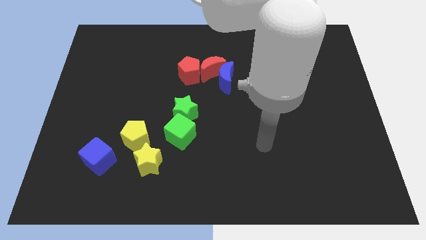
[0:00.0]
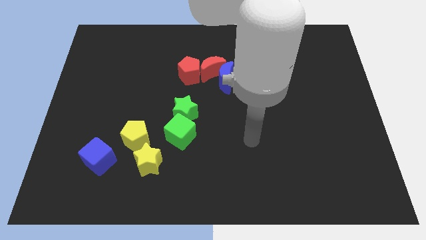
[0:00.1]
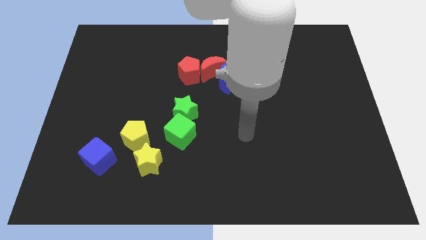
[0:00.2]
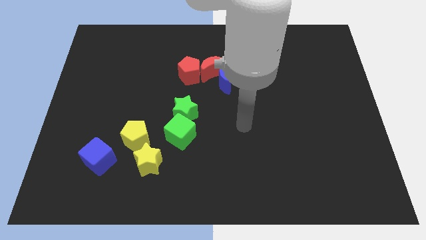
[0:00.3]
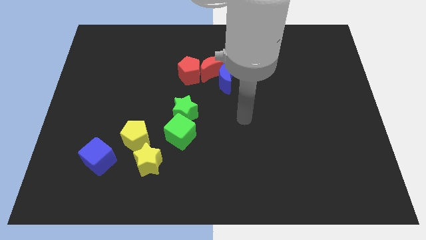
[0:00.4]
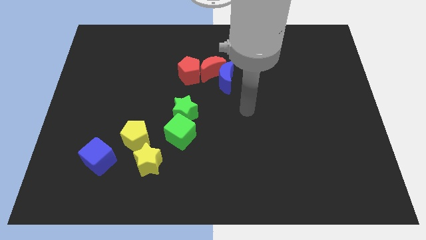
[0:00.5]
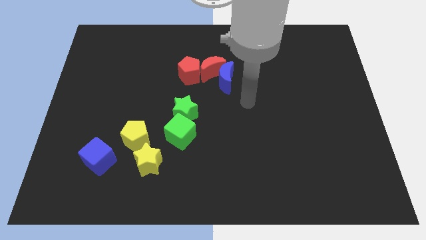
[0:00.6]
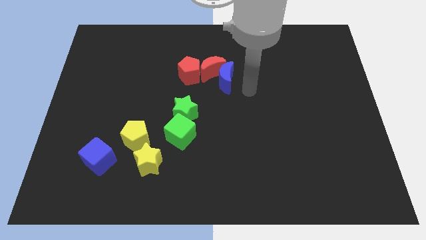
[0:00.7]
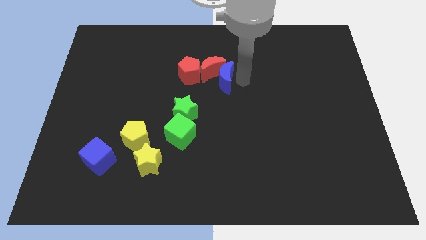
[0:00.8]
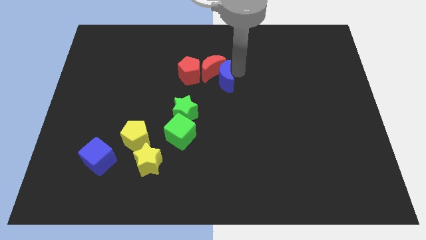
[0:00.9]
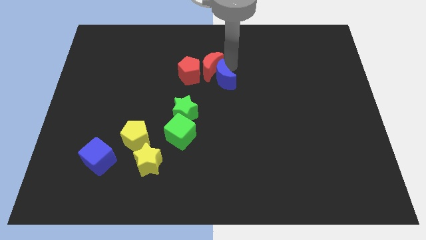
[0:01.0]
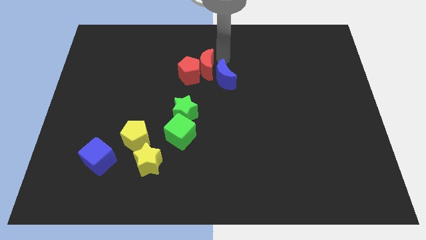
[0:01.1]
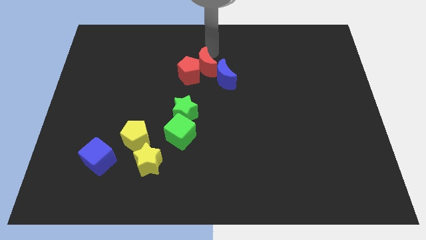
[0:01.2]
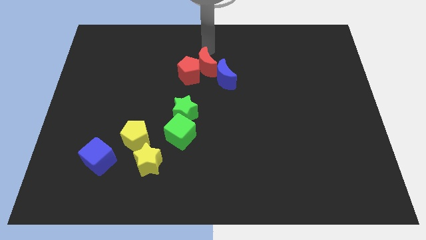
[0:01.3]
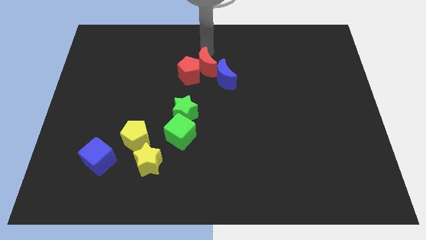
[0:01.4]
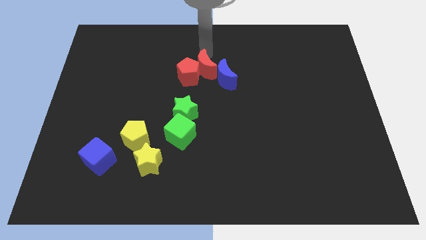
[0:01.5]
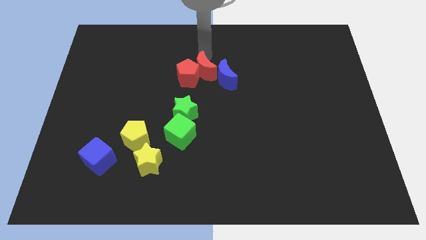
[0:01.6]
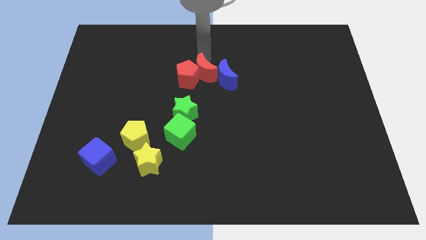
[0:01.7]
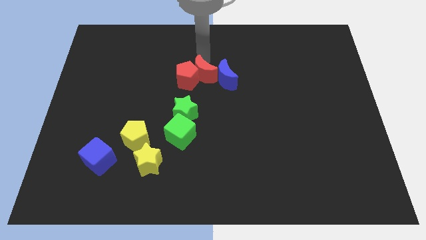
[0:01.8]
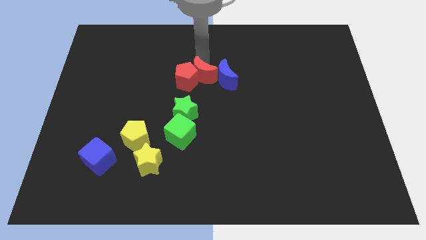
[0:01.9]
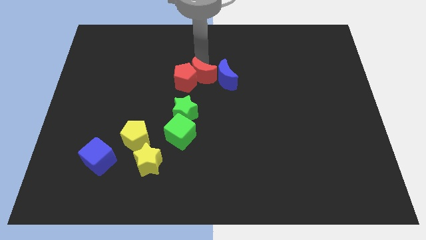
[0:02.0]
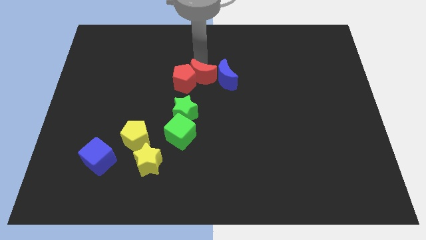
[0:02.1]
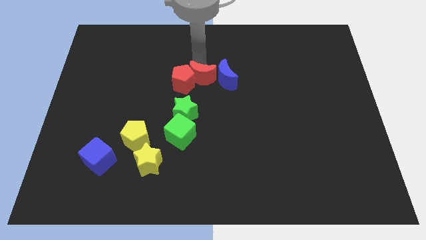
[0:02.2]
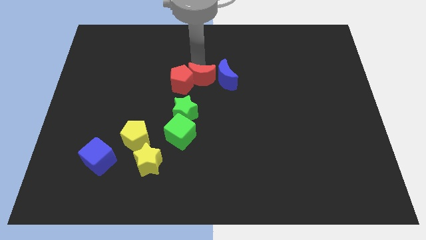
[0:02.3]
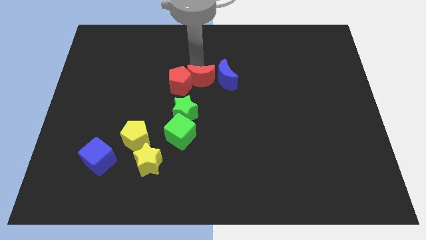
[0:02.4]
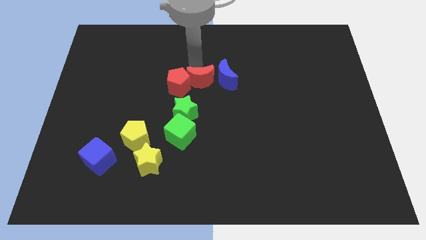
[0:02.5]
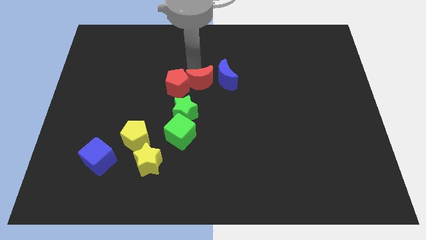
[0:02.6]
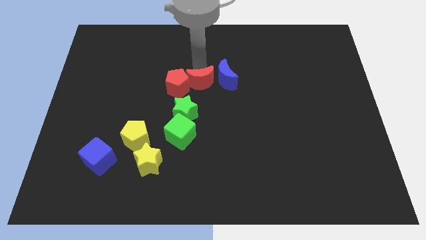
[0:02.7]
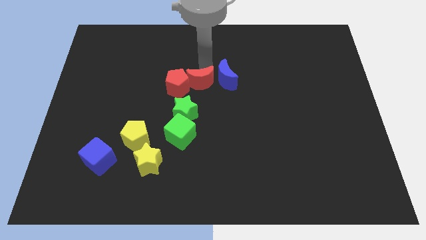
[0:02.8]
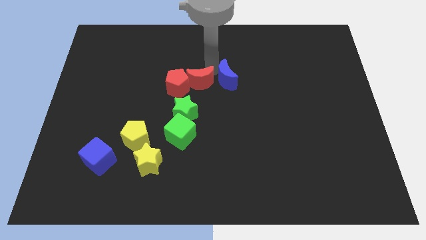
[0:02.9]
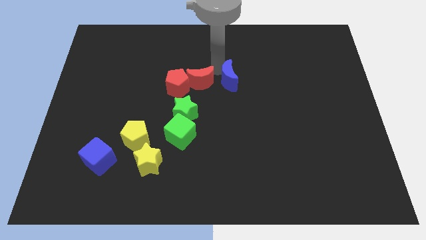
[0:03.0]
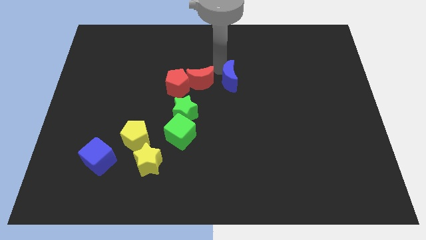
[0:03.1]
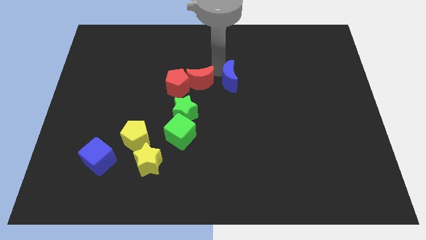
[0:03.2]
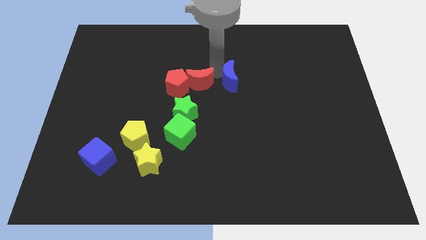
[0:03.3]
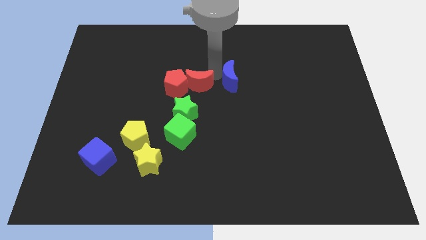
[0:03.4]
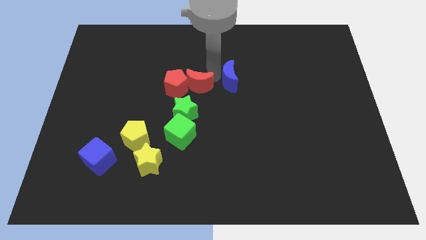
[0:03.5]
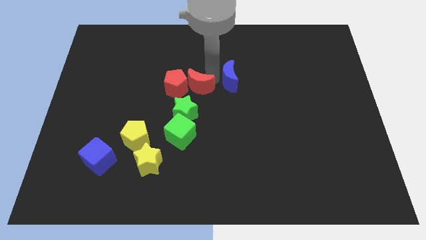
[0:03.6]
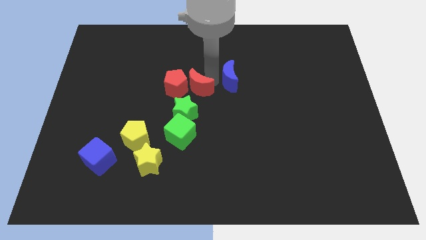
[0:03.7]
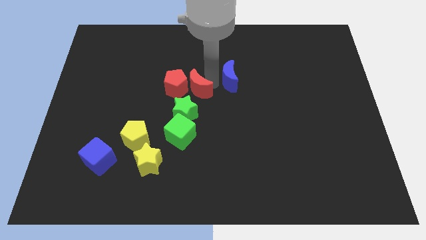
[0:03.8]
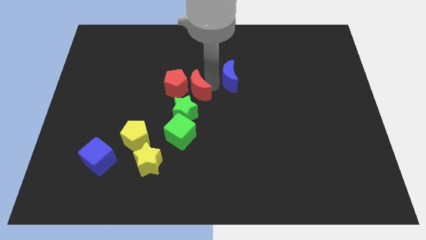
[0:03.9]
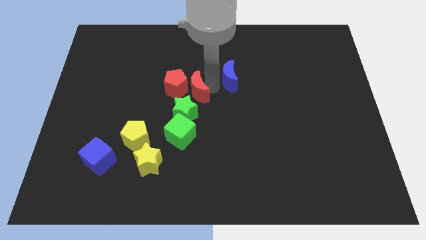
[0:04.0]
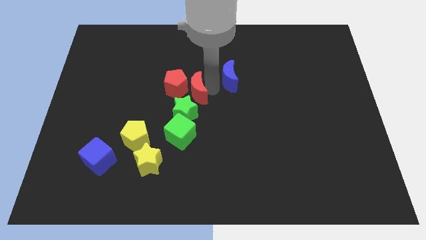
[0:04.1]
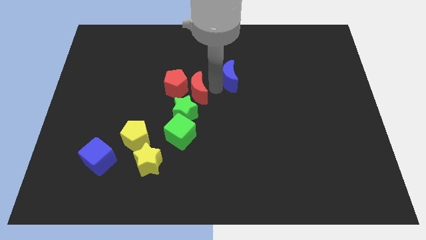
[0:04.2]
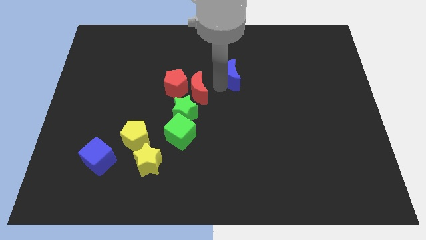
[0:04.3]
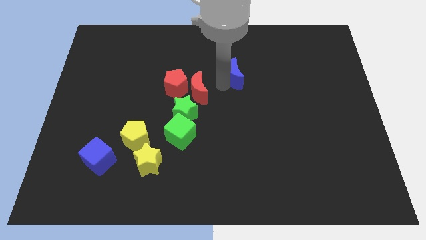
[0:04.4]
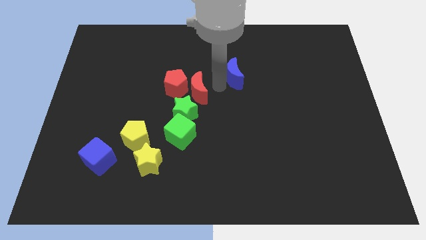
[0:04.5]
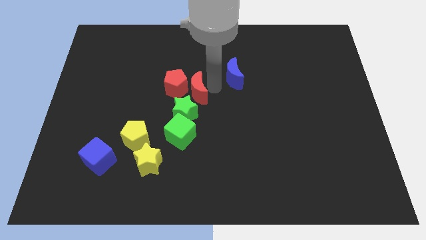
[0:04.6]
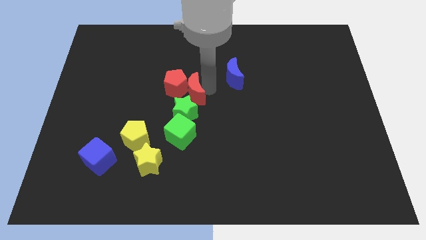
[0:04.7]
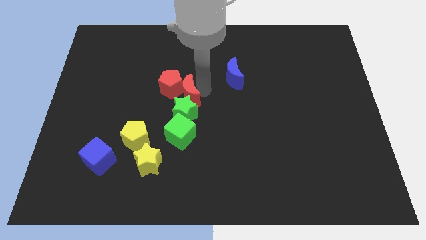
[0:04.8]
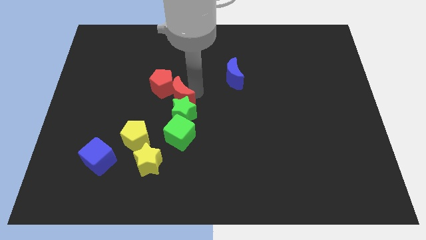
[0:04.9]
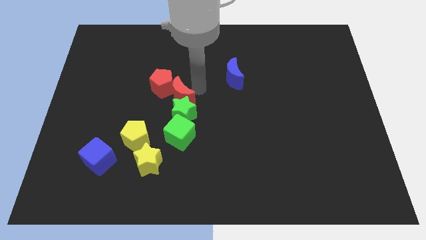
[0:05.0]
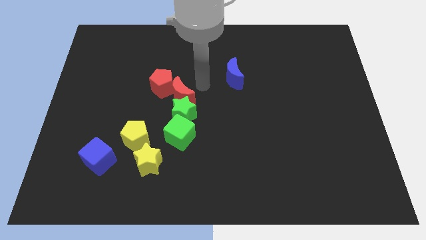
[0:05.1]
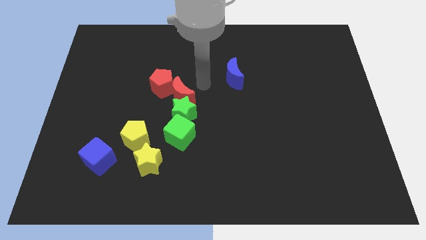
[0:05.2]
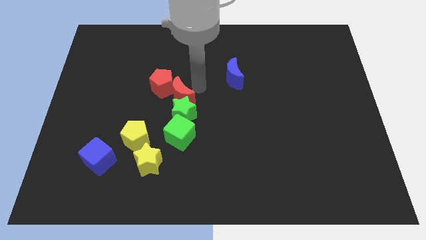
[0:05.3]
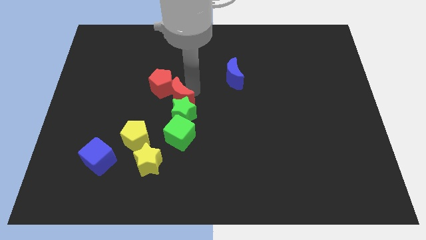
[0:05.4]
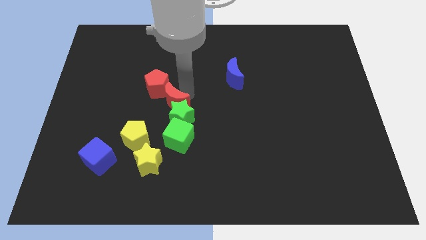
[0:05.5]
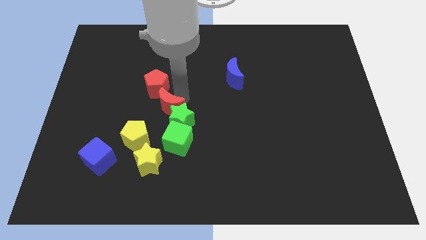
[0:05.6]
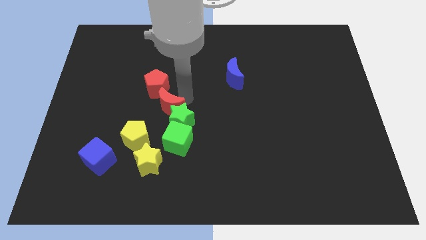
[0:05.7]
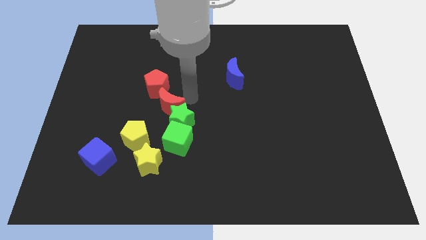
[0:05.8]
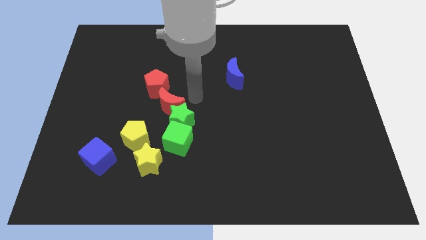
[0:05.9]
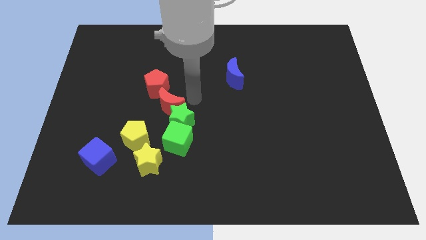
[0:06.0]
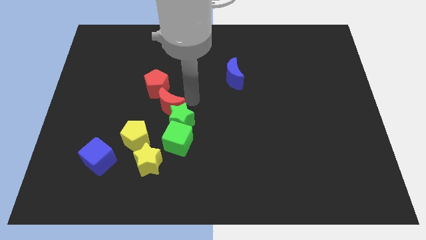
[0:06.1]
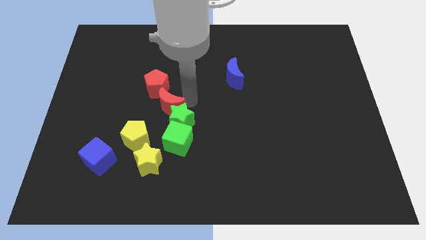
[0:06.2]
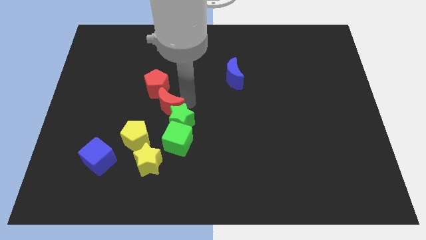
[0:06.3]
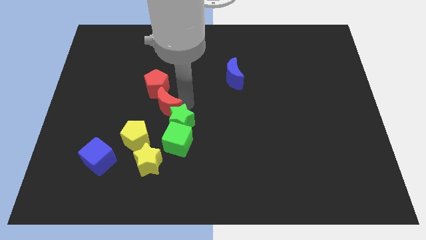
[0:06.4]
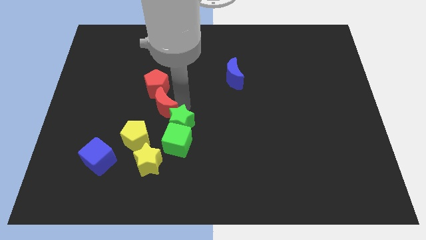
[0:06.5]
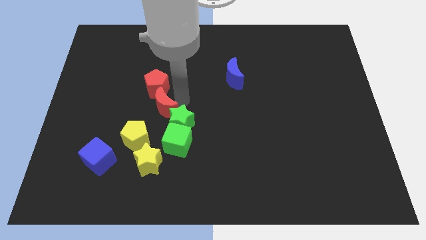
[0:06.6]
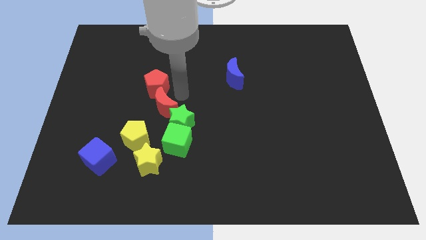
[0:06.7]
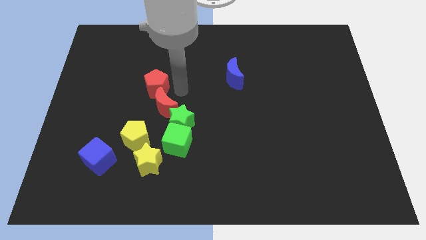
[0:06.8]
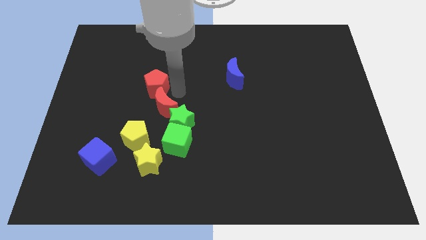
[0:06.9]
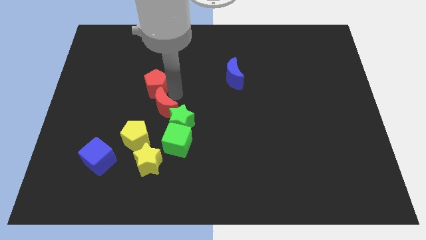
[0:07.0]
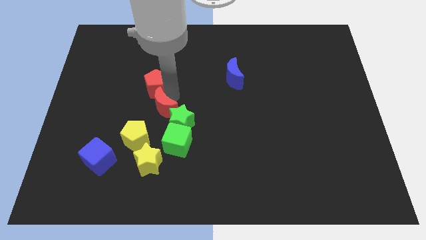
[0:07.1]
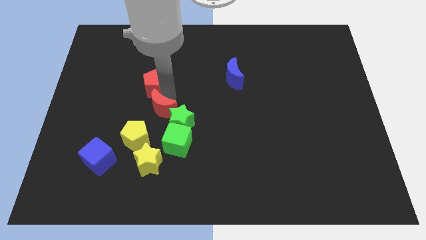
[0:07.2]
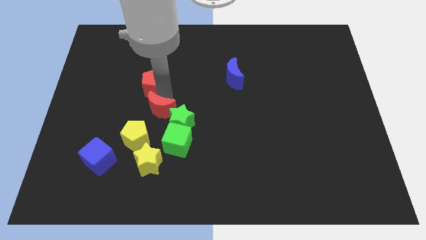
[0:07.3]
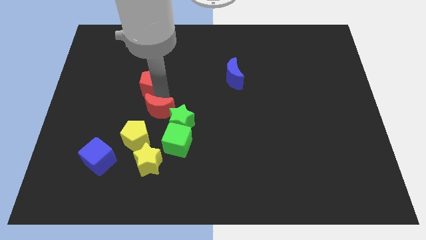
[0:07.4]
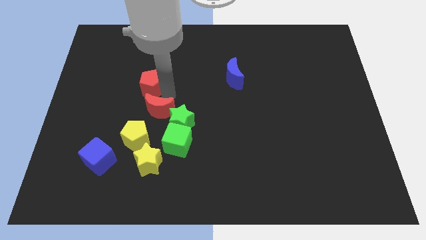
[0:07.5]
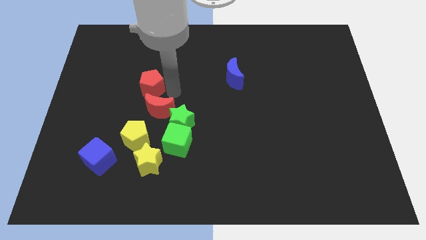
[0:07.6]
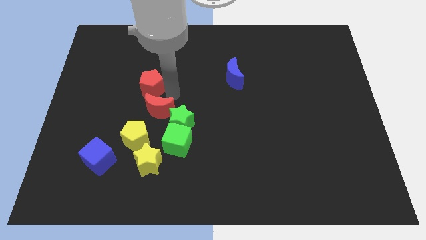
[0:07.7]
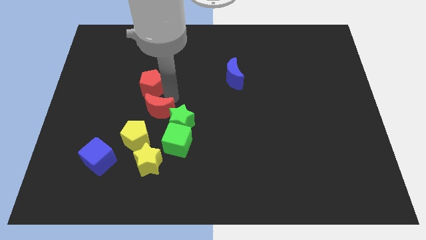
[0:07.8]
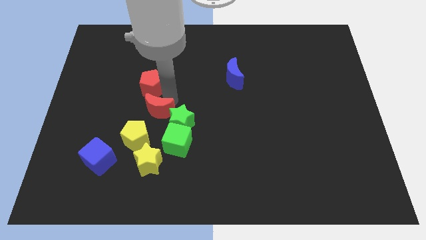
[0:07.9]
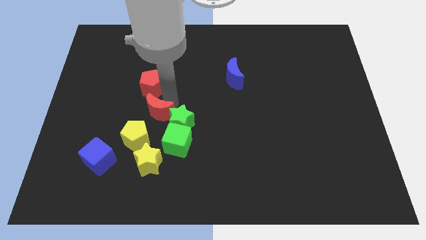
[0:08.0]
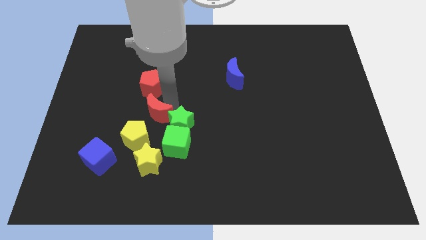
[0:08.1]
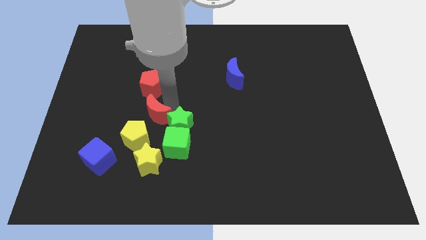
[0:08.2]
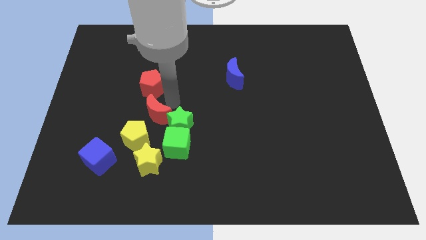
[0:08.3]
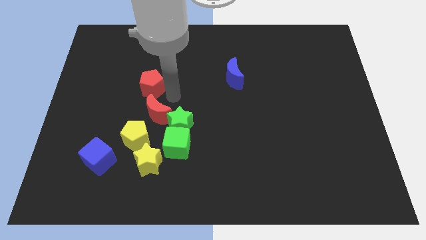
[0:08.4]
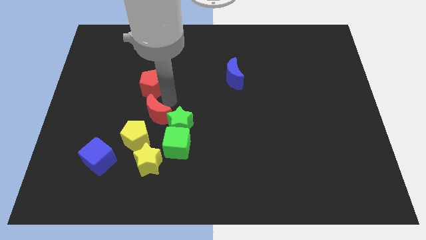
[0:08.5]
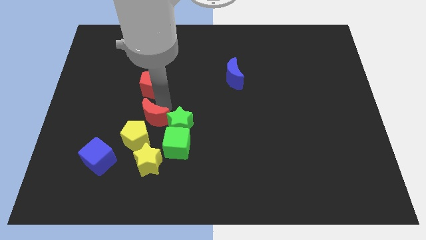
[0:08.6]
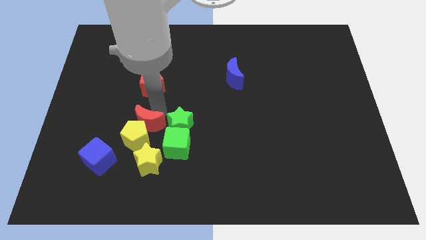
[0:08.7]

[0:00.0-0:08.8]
push the red moon close to the yellow pentagon
